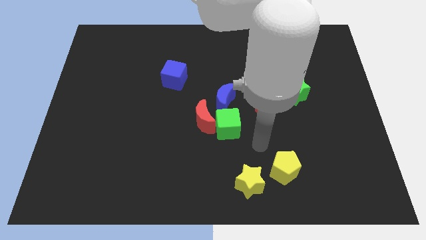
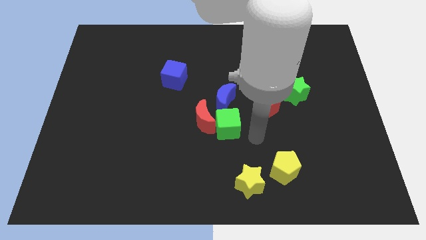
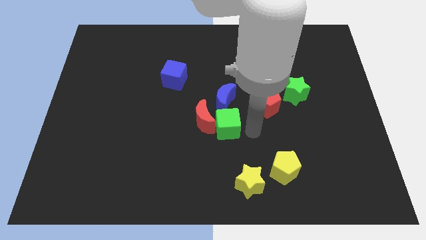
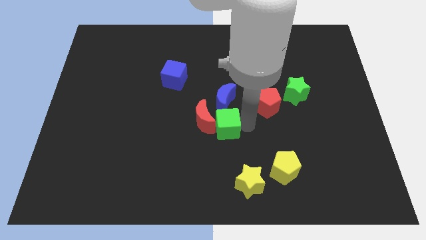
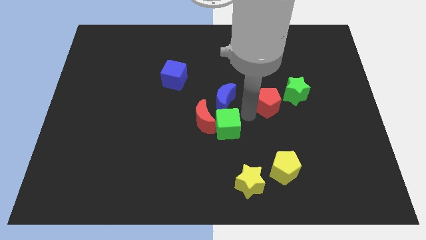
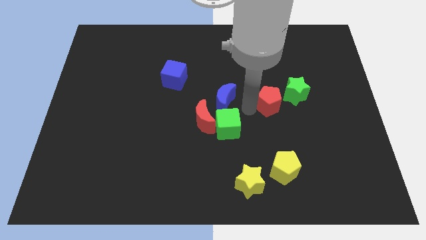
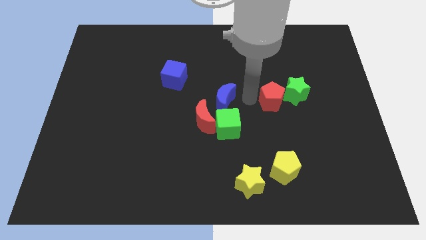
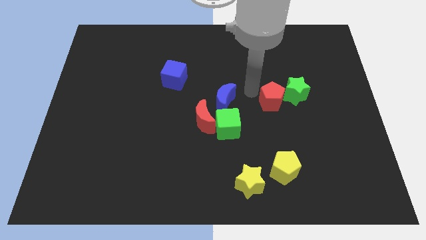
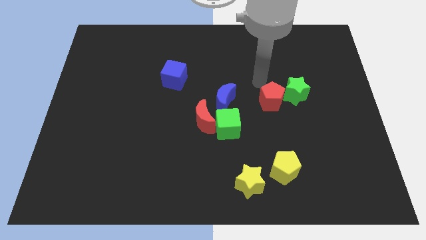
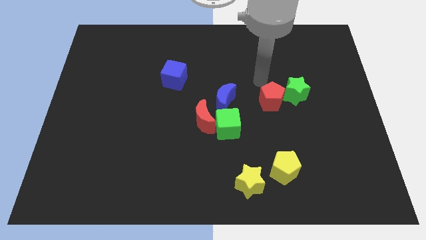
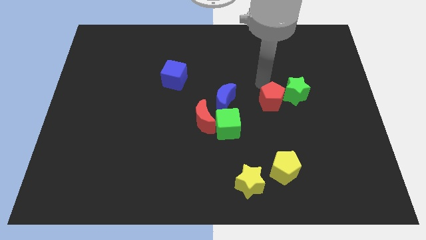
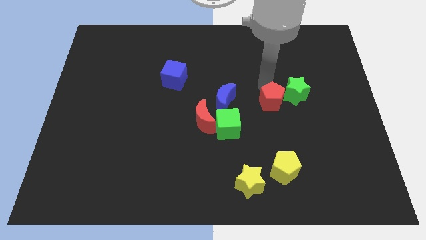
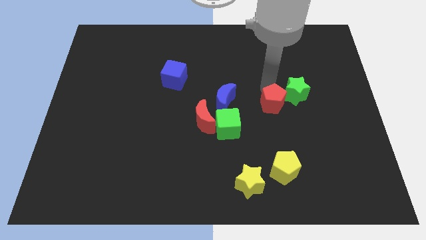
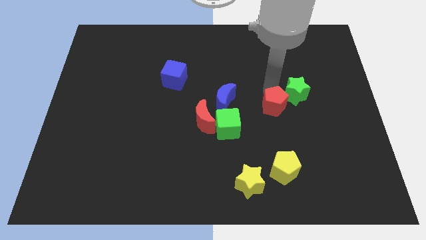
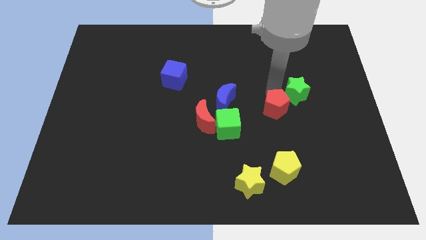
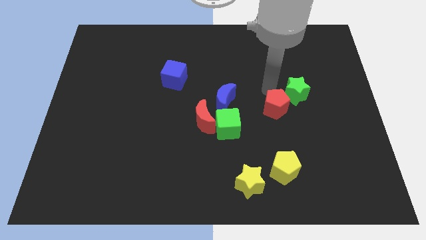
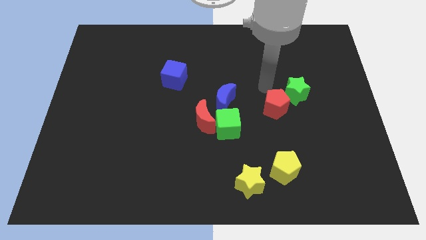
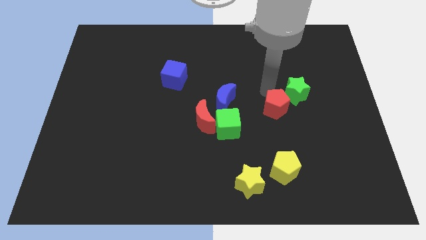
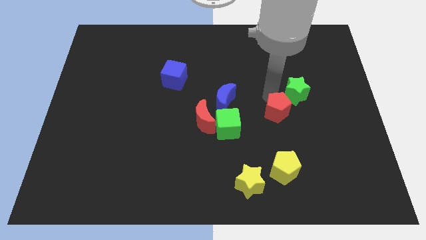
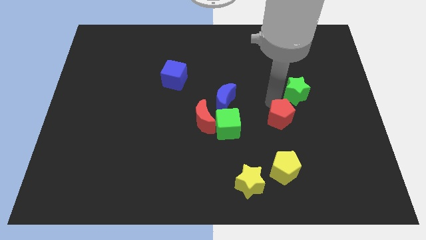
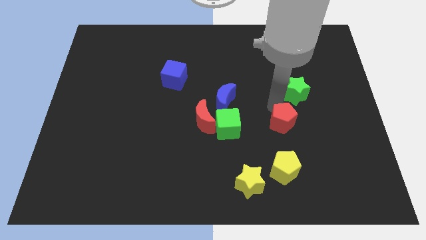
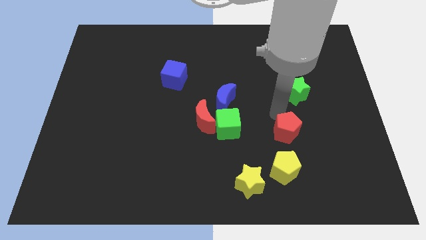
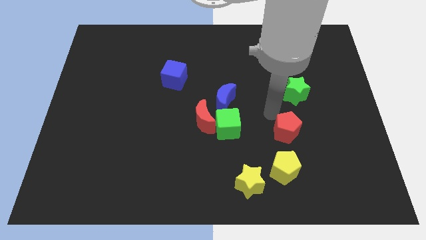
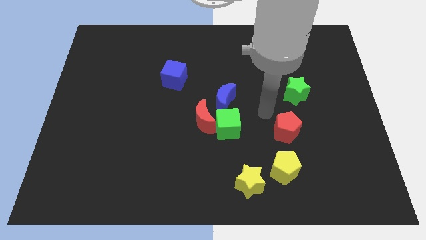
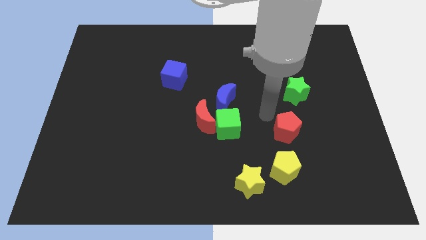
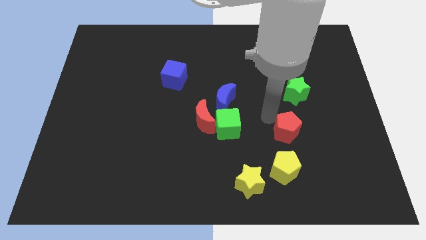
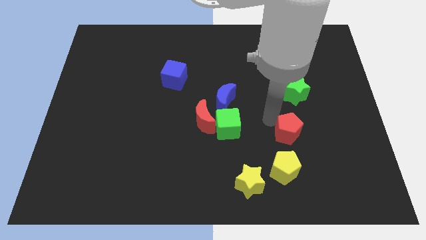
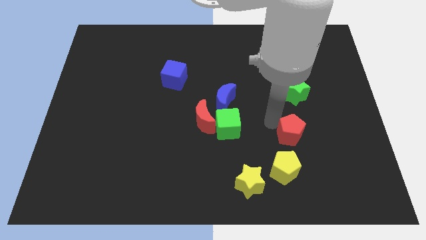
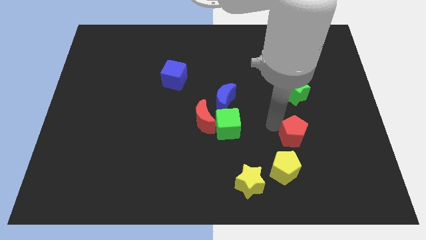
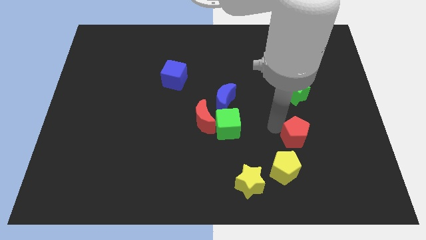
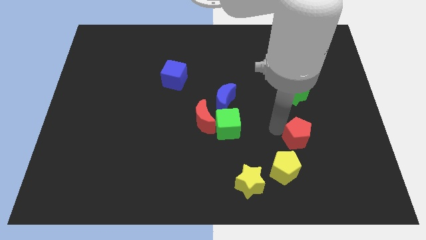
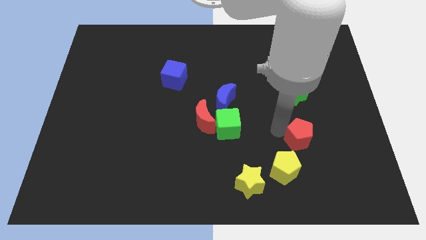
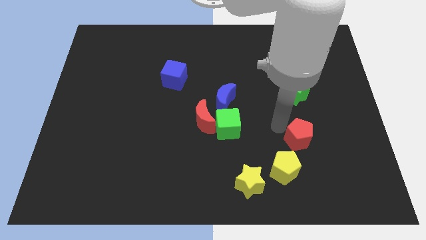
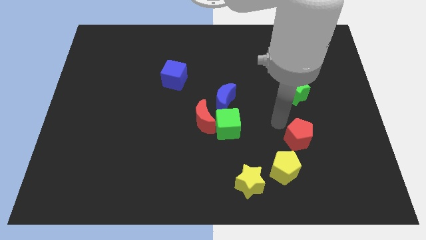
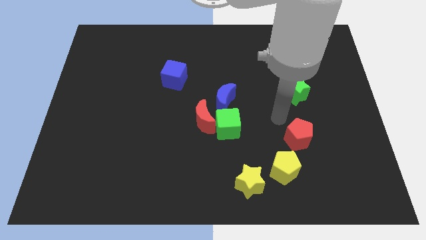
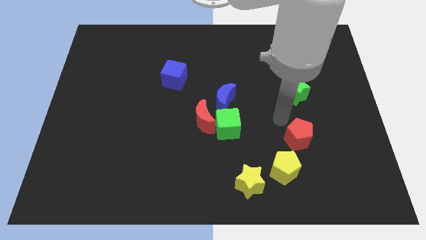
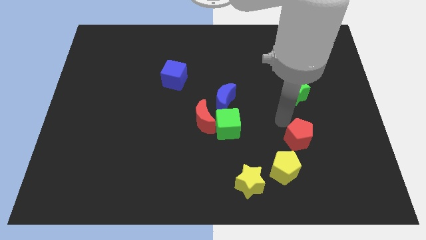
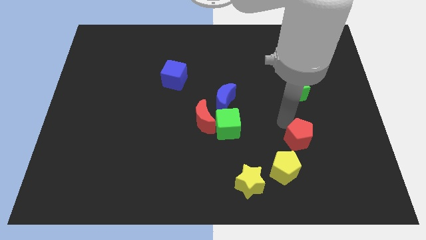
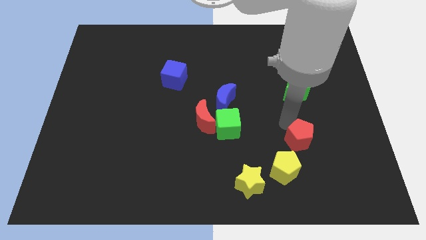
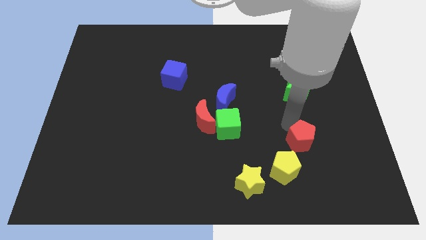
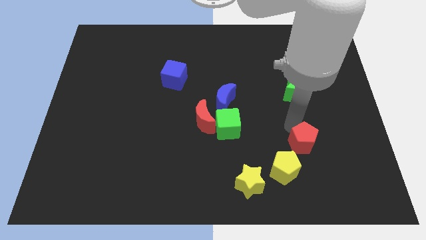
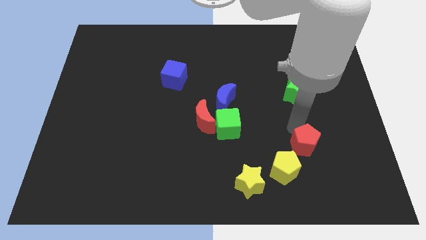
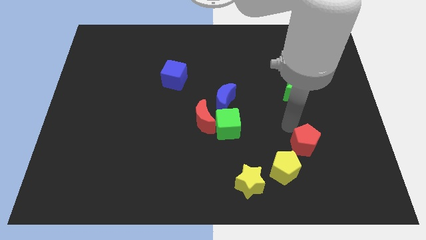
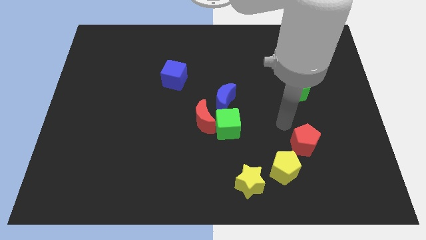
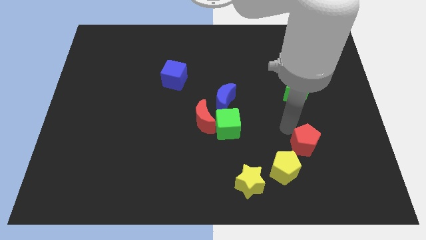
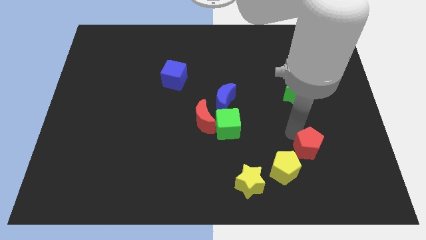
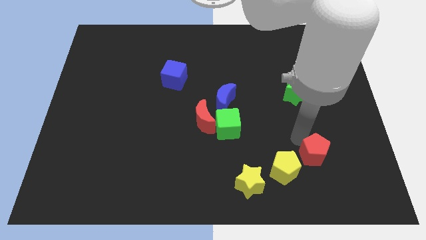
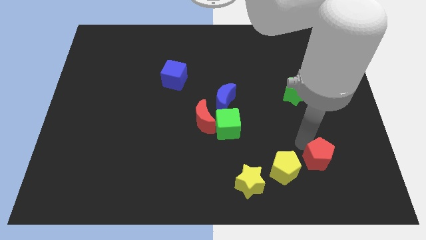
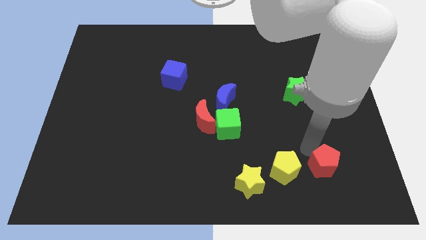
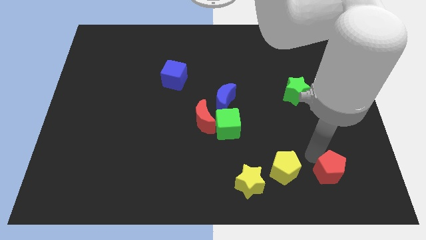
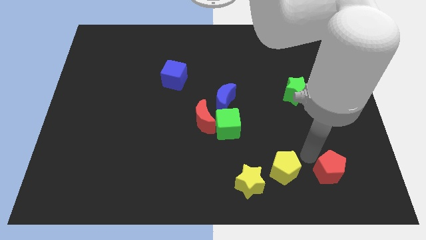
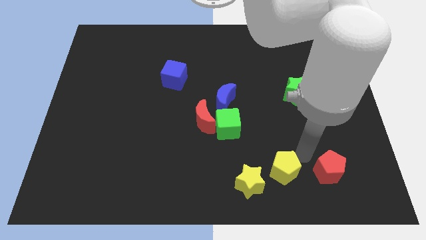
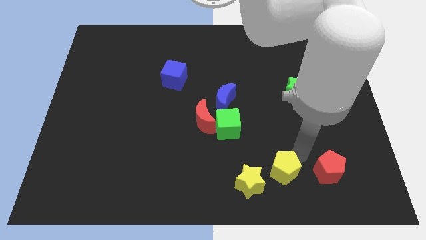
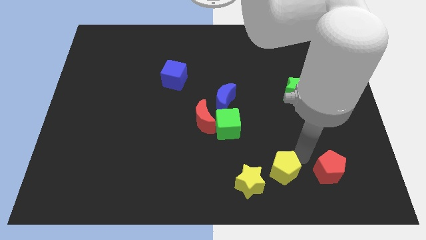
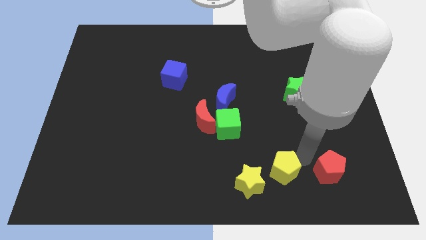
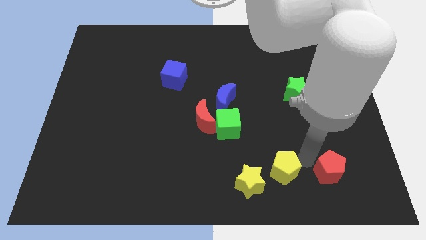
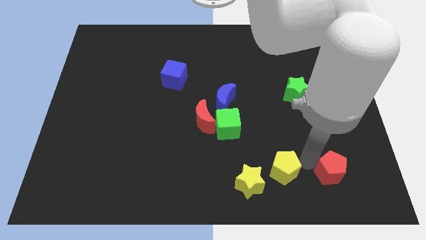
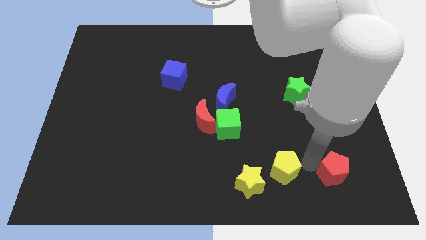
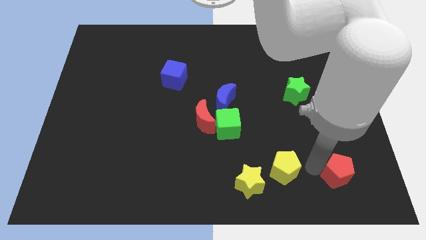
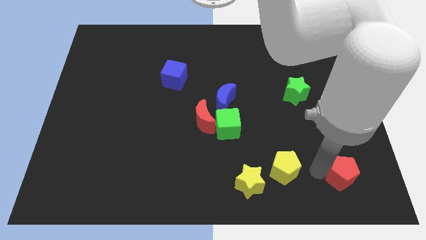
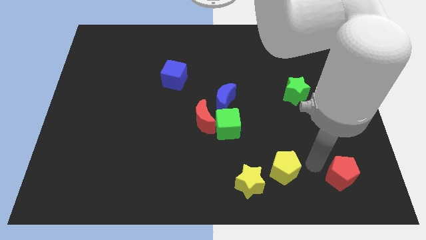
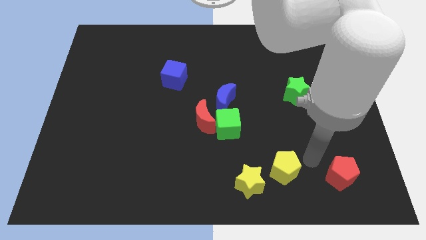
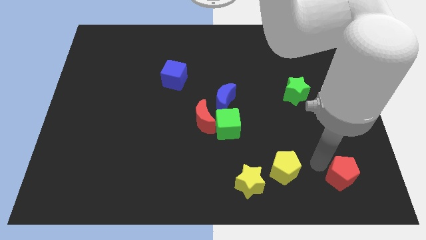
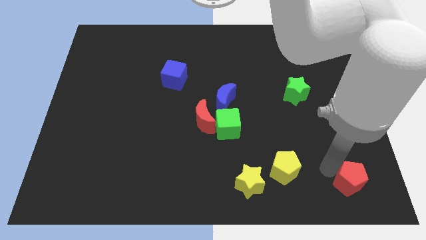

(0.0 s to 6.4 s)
move the red pentagon to the lower right corner
